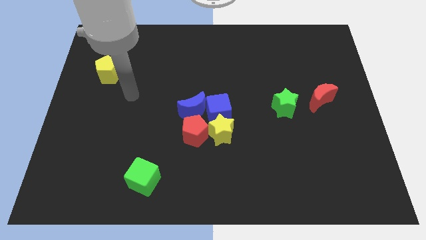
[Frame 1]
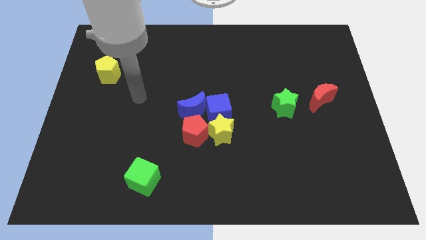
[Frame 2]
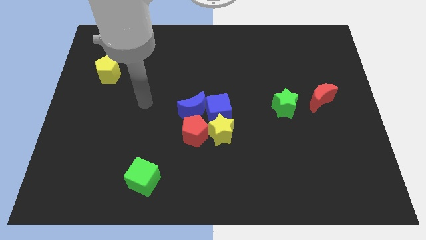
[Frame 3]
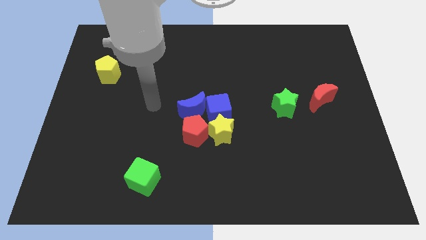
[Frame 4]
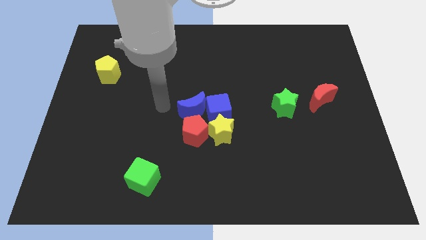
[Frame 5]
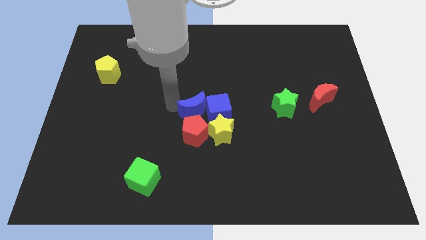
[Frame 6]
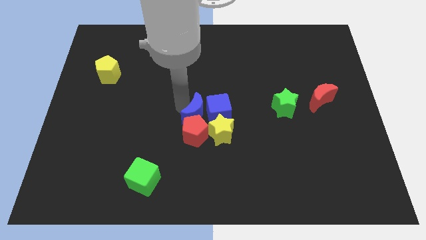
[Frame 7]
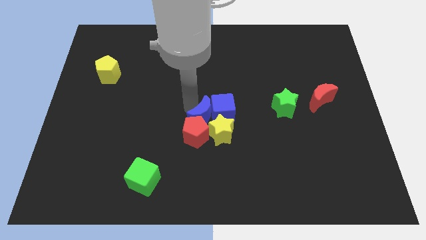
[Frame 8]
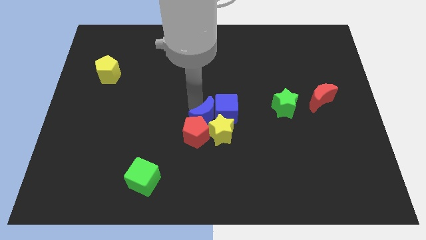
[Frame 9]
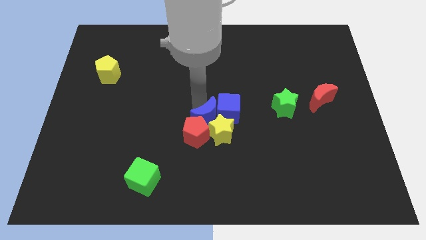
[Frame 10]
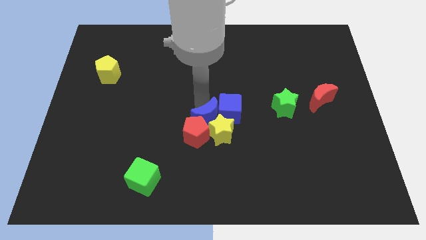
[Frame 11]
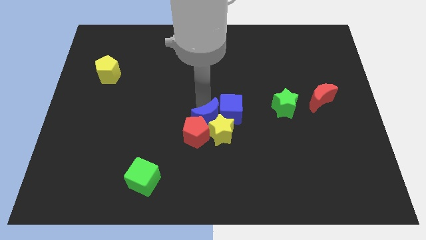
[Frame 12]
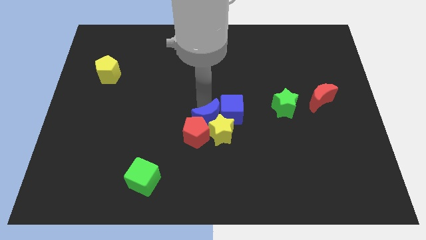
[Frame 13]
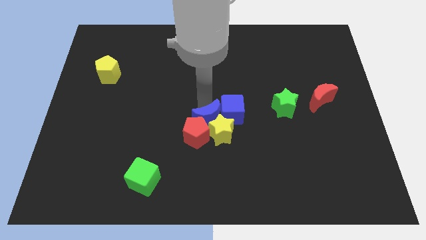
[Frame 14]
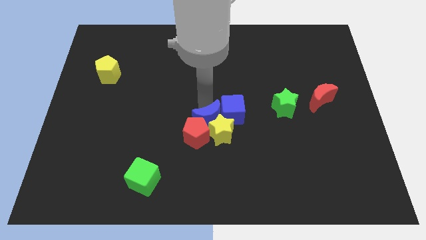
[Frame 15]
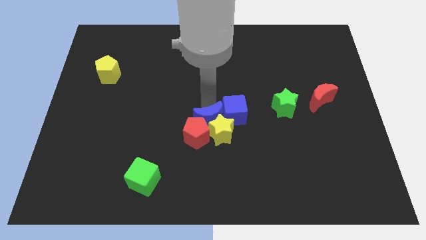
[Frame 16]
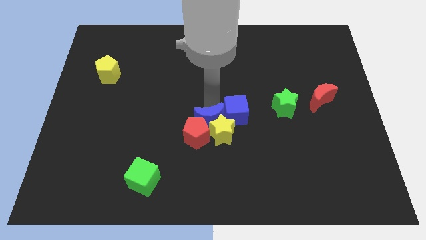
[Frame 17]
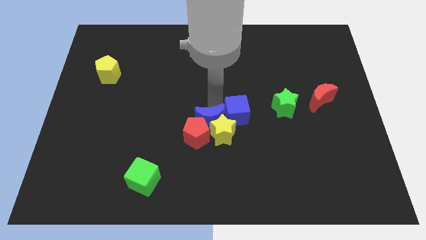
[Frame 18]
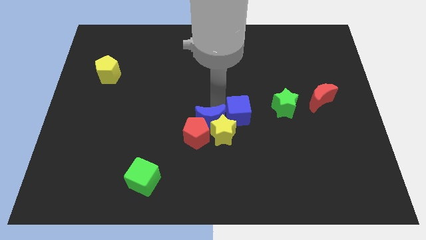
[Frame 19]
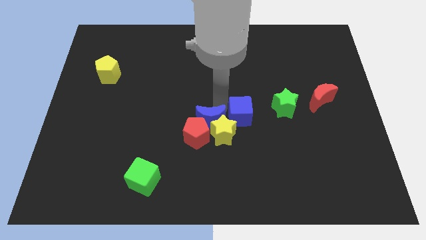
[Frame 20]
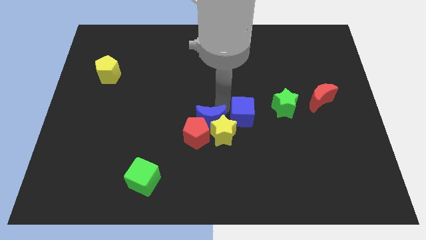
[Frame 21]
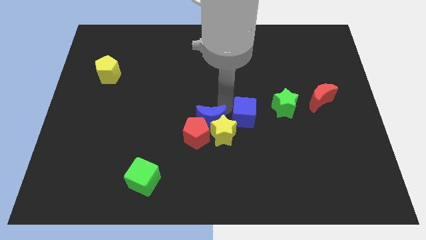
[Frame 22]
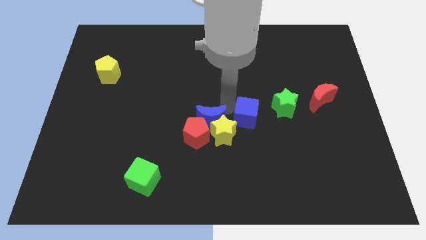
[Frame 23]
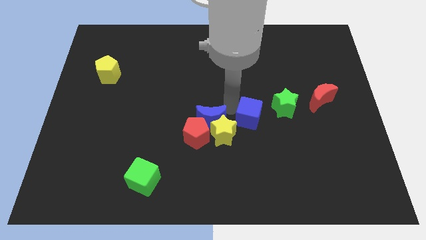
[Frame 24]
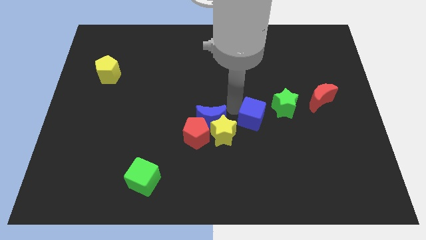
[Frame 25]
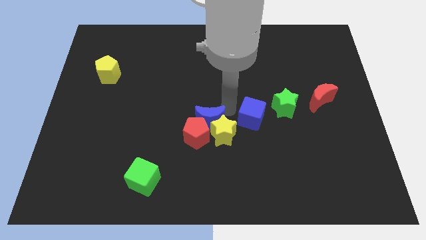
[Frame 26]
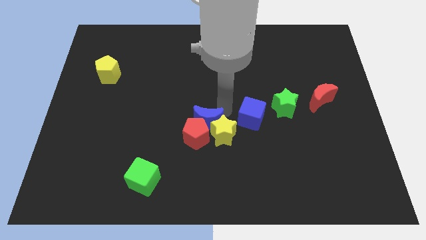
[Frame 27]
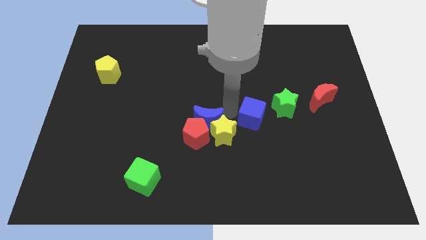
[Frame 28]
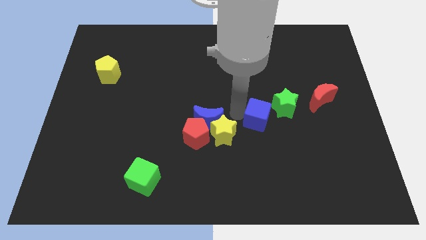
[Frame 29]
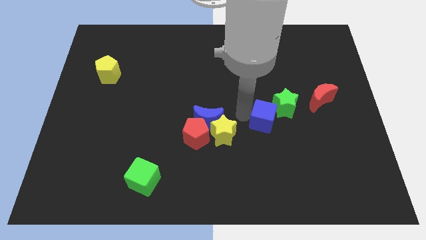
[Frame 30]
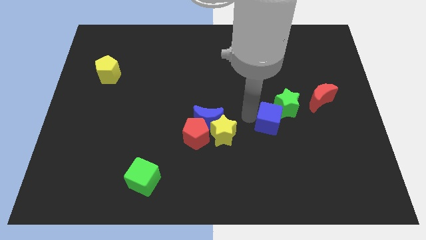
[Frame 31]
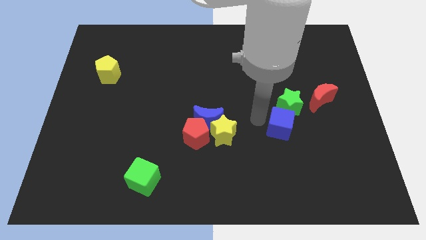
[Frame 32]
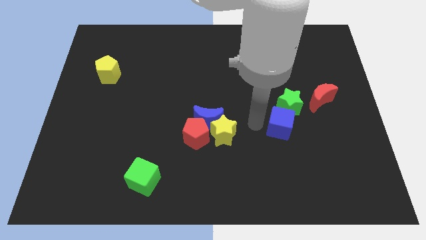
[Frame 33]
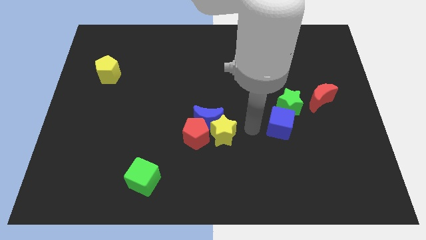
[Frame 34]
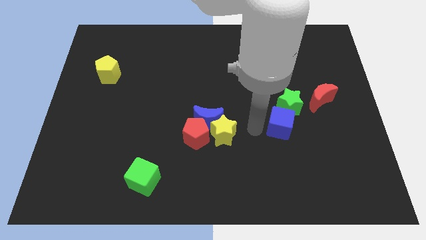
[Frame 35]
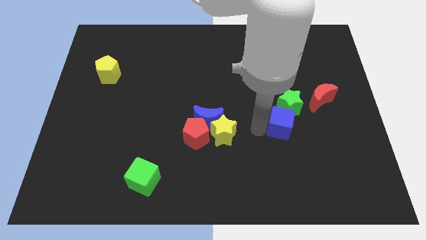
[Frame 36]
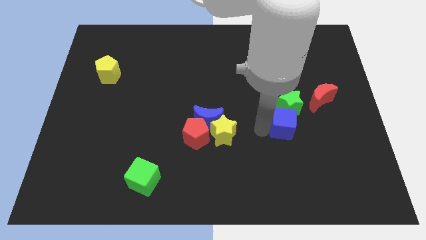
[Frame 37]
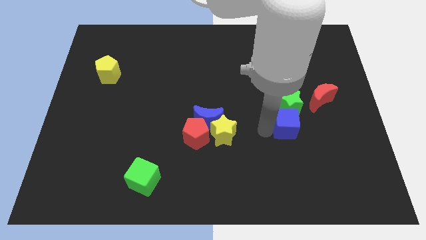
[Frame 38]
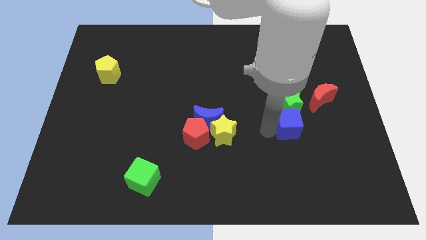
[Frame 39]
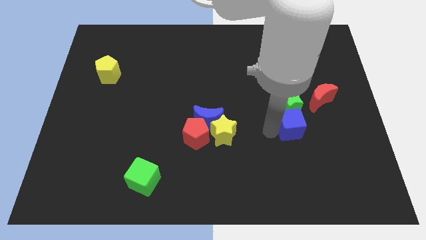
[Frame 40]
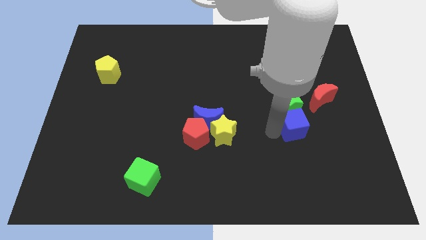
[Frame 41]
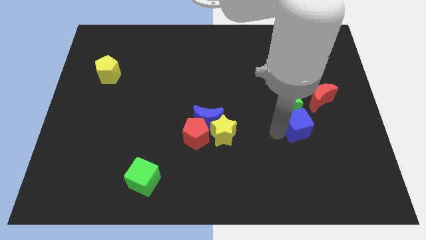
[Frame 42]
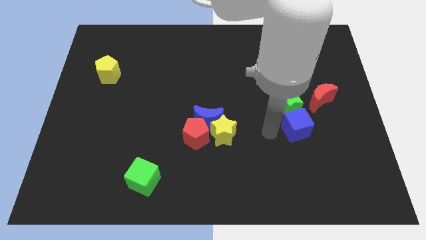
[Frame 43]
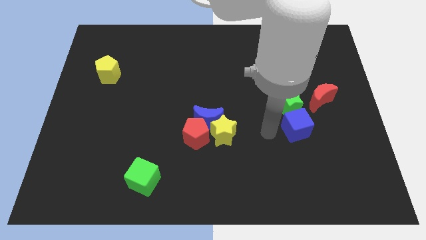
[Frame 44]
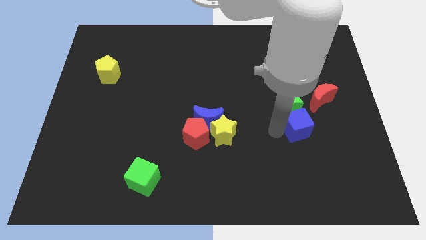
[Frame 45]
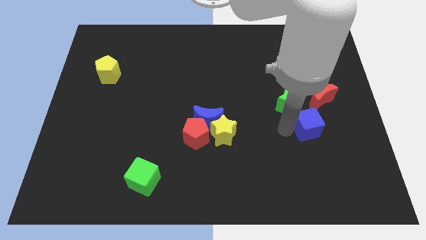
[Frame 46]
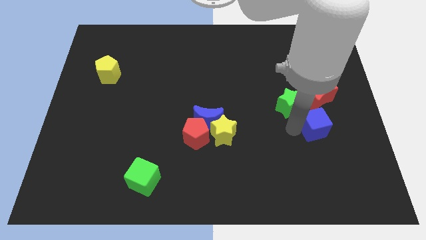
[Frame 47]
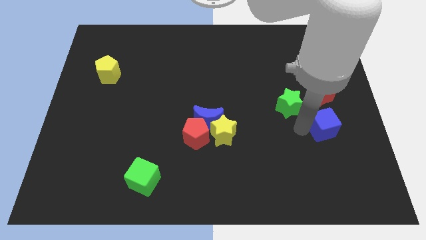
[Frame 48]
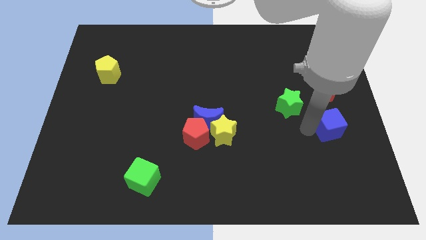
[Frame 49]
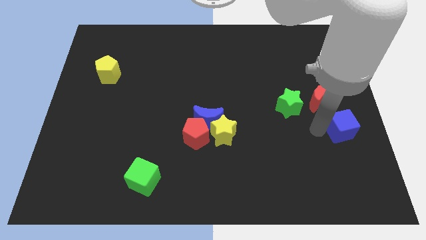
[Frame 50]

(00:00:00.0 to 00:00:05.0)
push the blue cube to the right side

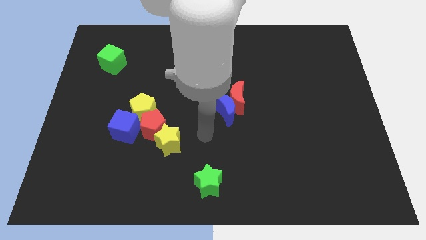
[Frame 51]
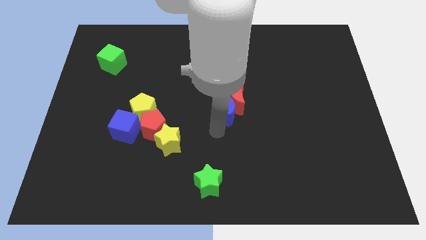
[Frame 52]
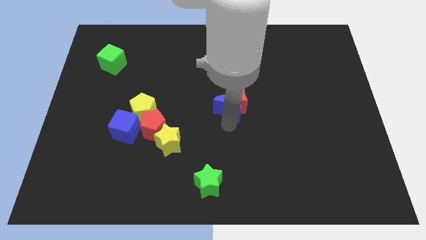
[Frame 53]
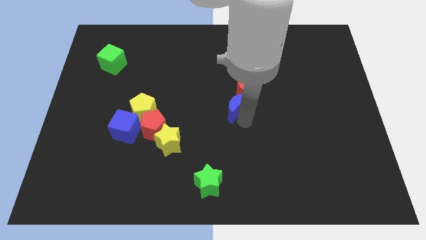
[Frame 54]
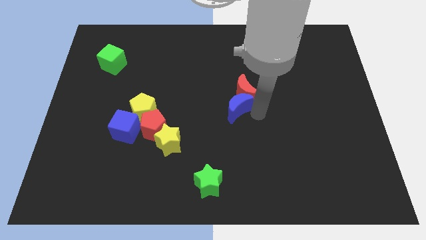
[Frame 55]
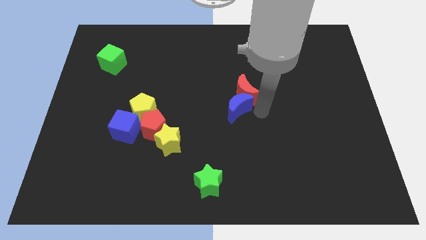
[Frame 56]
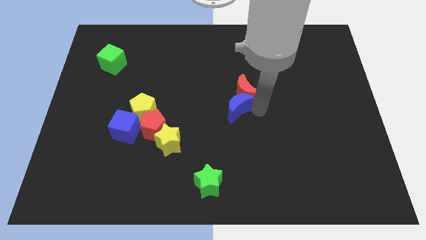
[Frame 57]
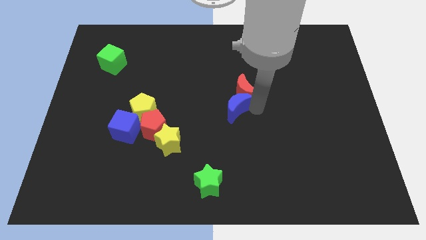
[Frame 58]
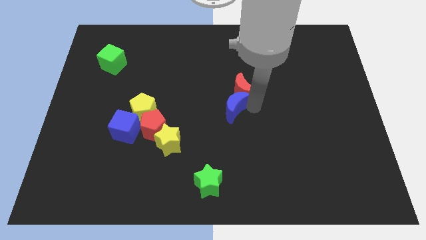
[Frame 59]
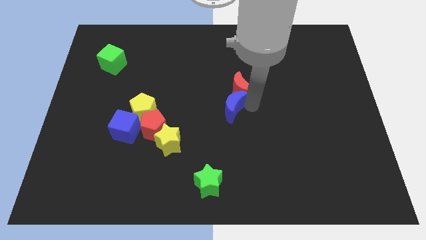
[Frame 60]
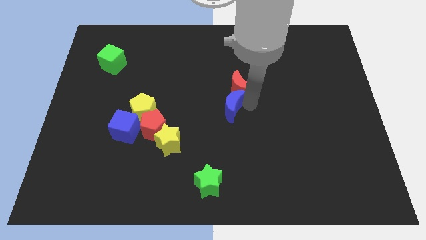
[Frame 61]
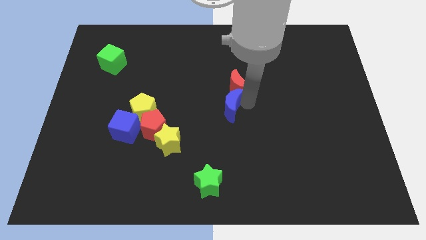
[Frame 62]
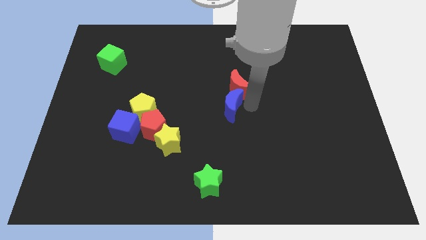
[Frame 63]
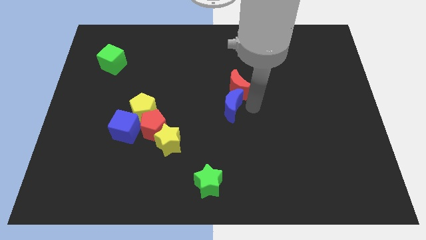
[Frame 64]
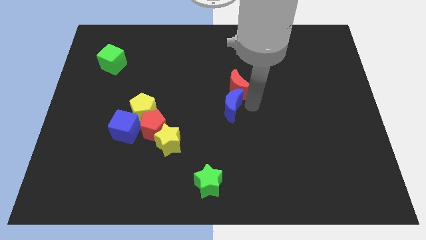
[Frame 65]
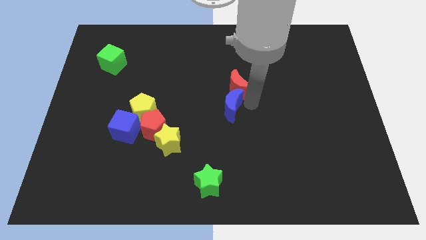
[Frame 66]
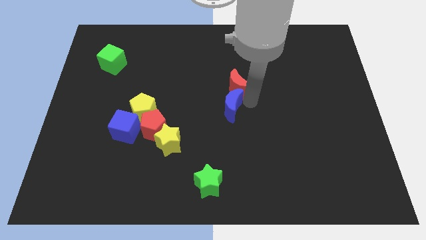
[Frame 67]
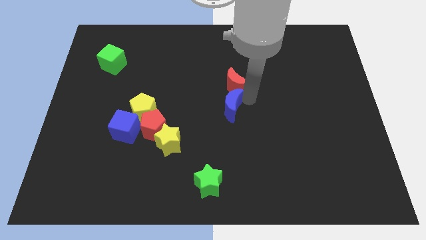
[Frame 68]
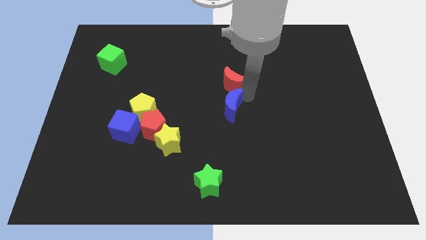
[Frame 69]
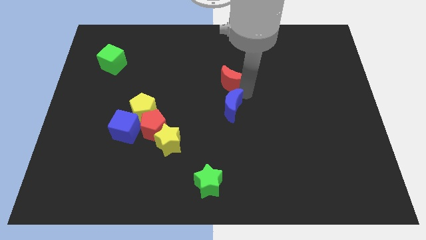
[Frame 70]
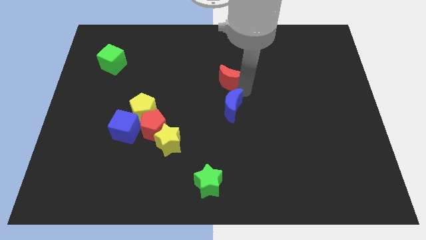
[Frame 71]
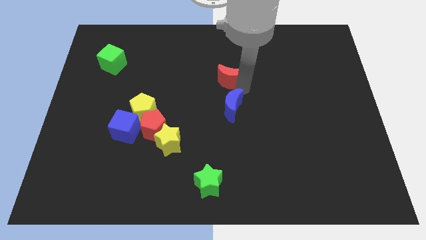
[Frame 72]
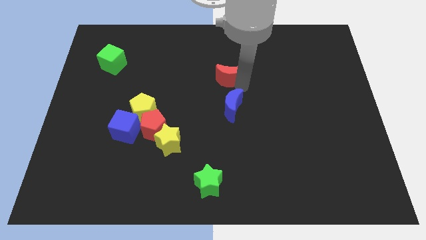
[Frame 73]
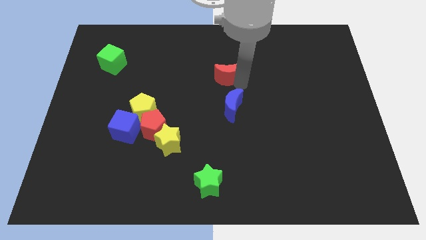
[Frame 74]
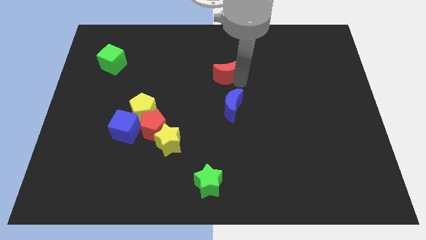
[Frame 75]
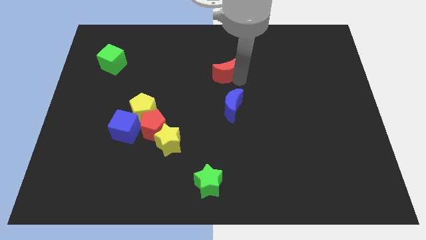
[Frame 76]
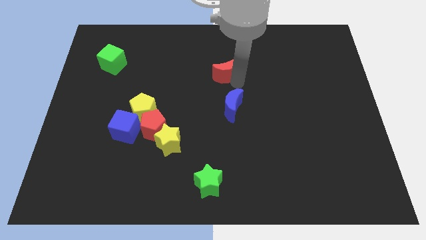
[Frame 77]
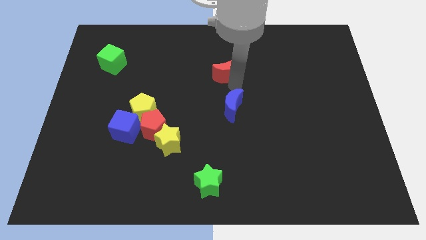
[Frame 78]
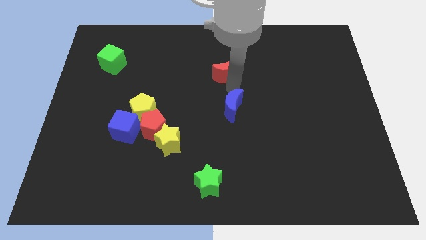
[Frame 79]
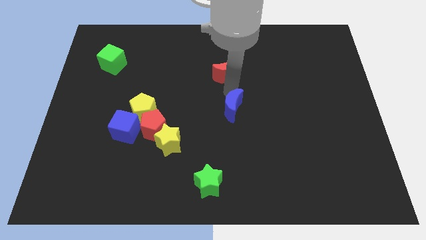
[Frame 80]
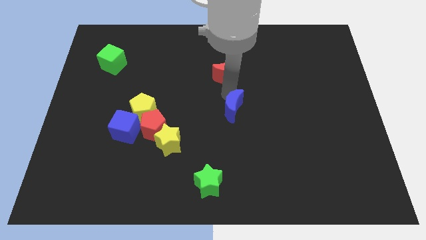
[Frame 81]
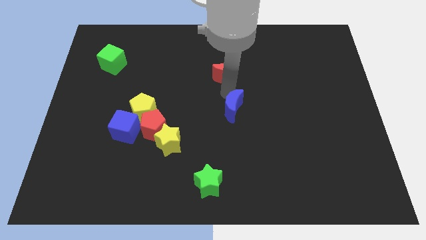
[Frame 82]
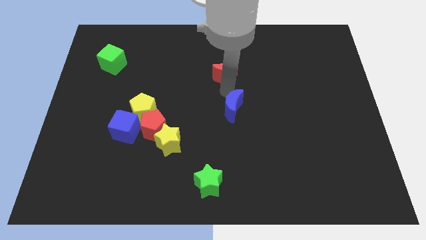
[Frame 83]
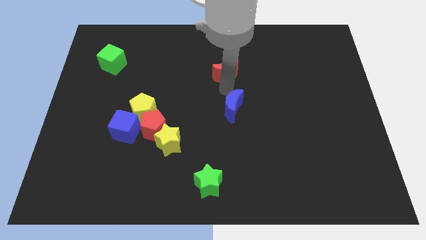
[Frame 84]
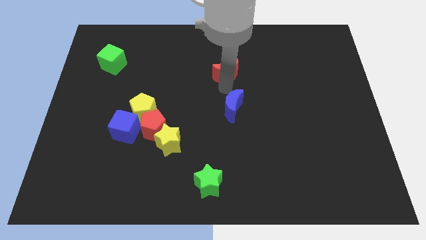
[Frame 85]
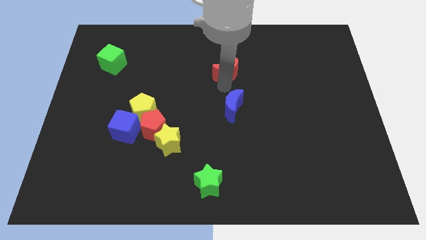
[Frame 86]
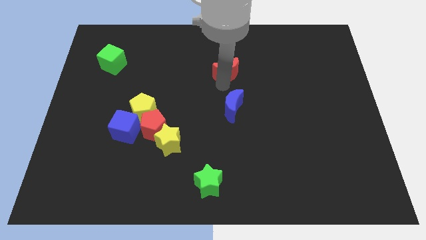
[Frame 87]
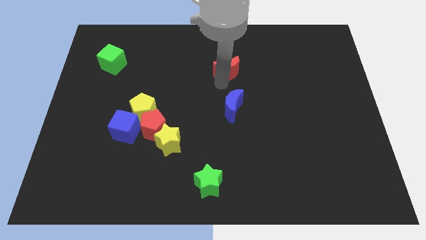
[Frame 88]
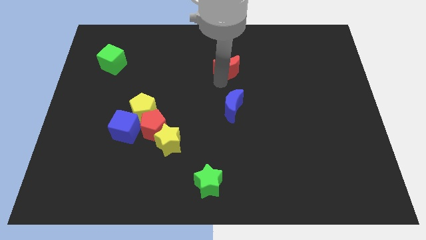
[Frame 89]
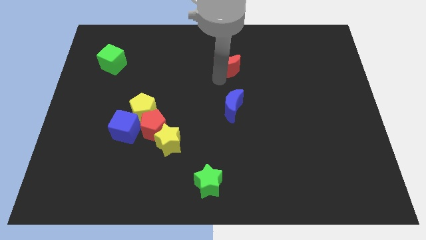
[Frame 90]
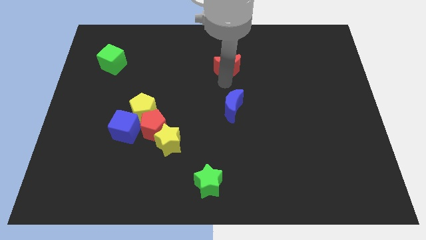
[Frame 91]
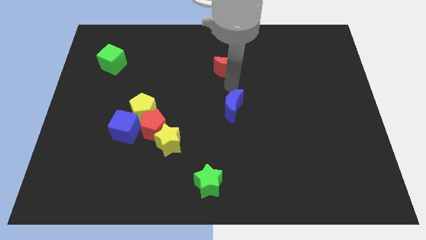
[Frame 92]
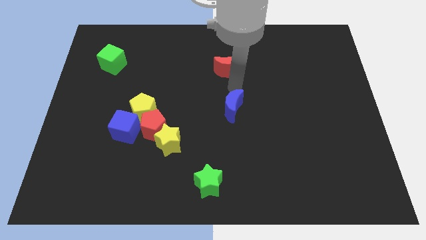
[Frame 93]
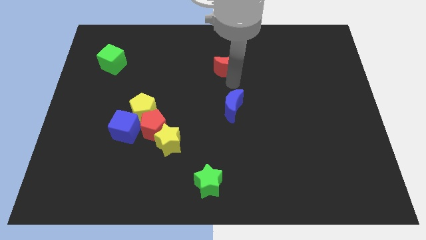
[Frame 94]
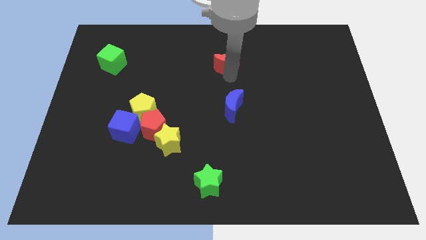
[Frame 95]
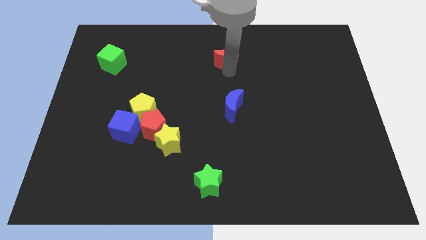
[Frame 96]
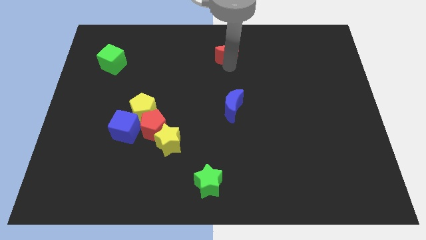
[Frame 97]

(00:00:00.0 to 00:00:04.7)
push the red moon to the top side
